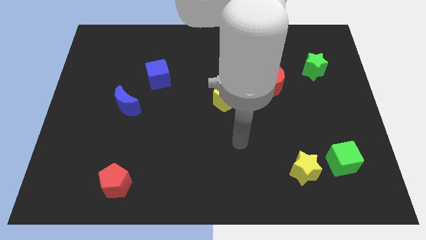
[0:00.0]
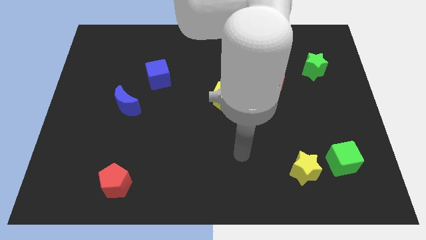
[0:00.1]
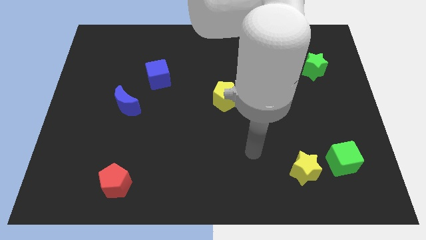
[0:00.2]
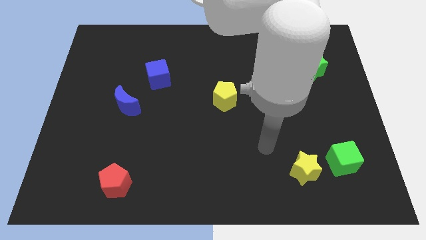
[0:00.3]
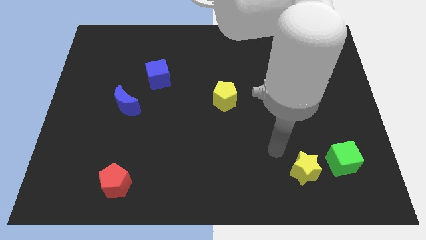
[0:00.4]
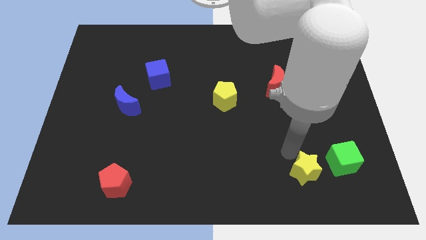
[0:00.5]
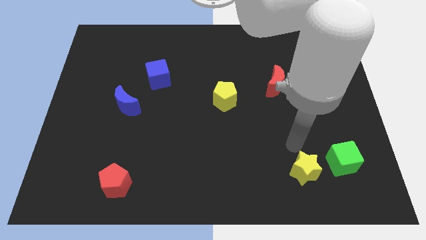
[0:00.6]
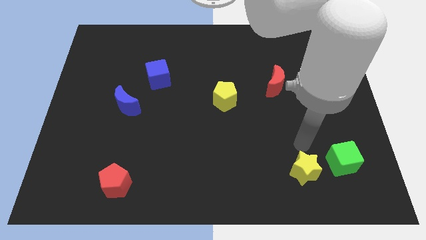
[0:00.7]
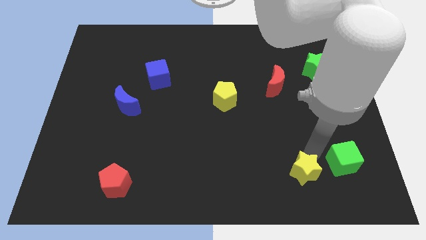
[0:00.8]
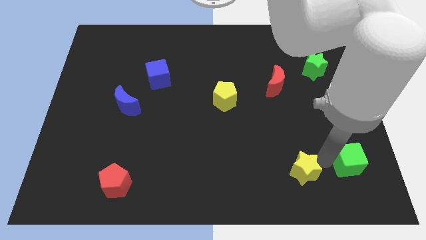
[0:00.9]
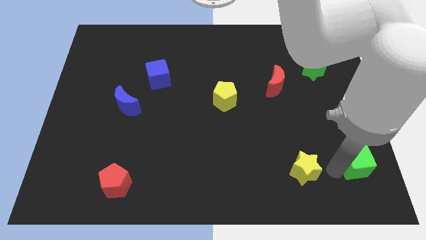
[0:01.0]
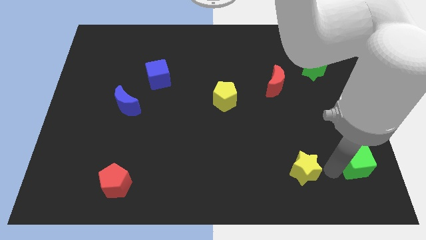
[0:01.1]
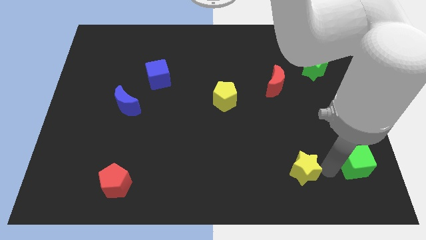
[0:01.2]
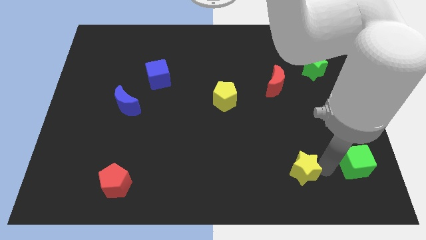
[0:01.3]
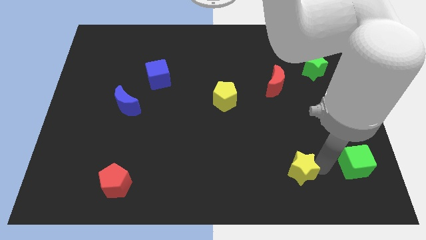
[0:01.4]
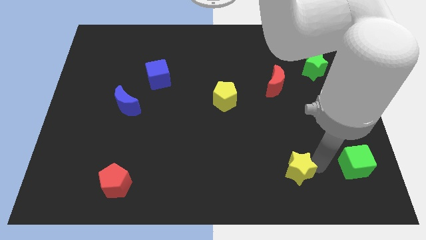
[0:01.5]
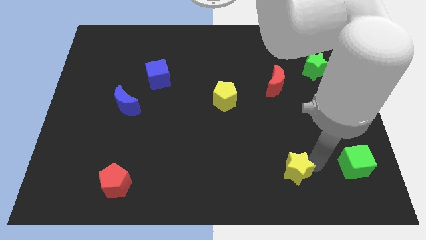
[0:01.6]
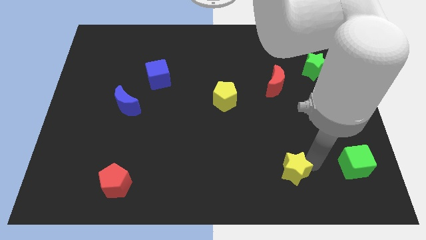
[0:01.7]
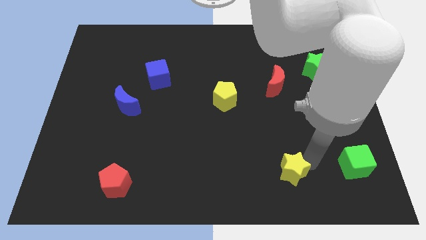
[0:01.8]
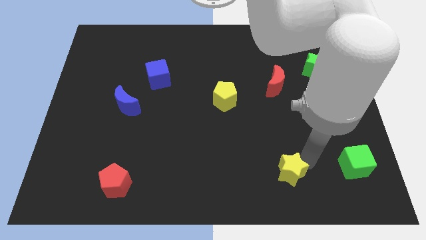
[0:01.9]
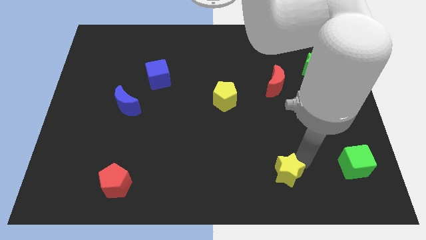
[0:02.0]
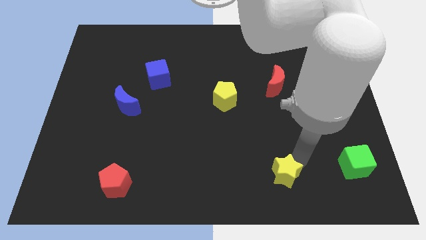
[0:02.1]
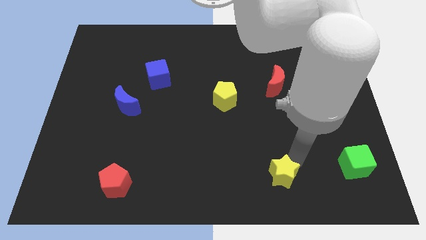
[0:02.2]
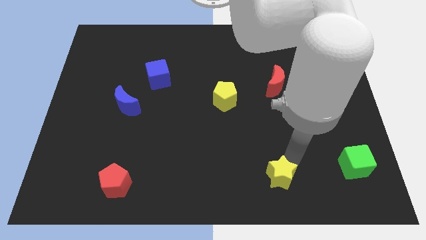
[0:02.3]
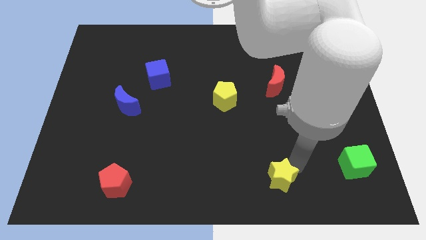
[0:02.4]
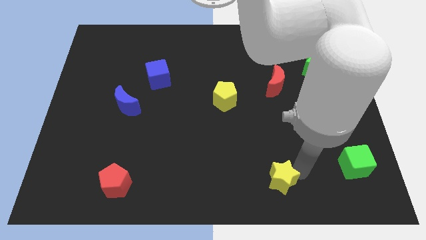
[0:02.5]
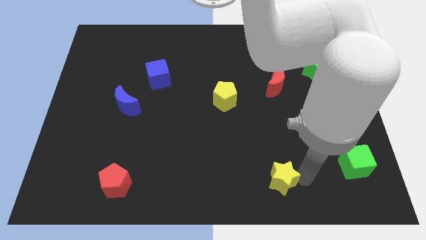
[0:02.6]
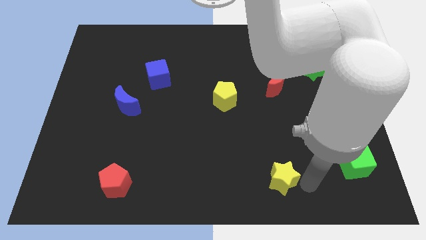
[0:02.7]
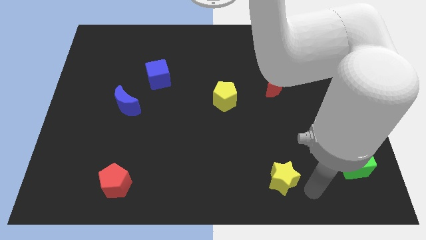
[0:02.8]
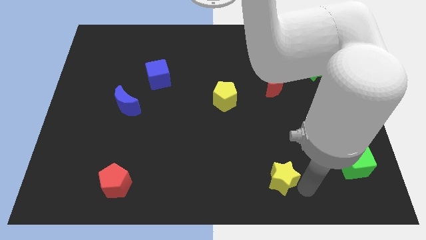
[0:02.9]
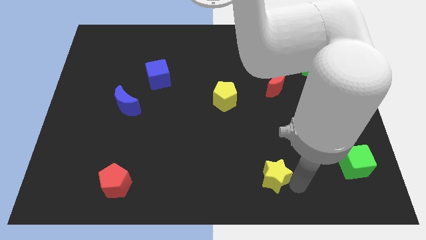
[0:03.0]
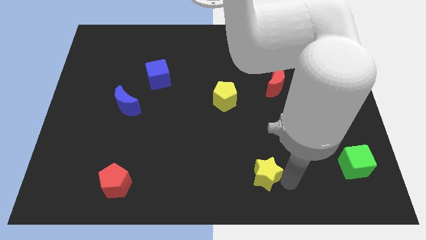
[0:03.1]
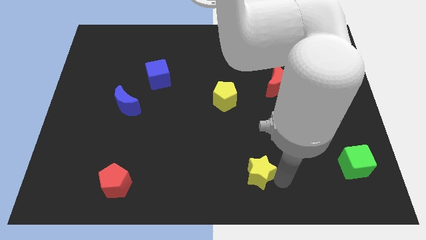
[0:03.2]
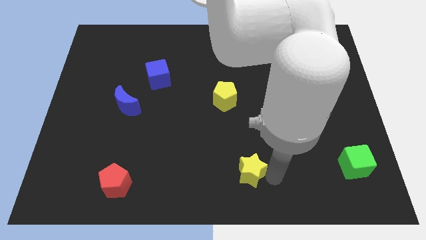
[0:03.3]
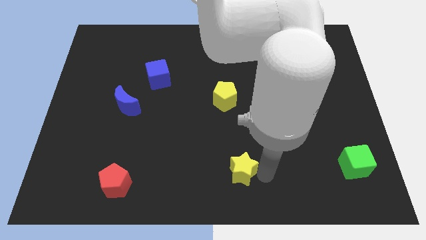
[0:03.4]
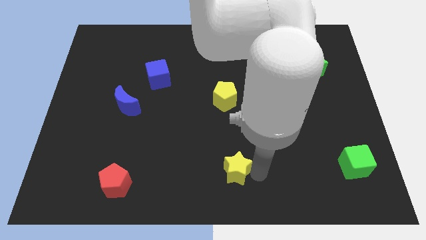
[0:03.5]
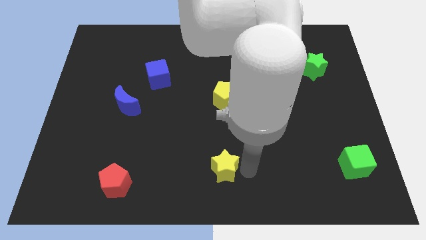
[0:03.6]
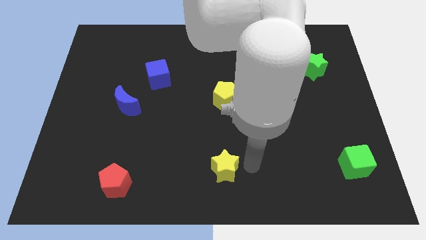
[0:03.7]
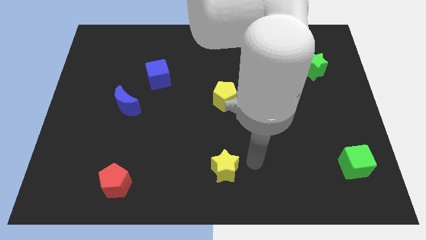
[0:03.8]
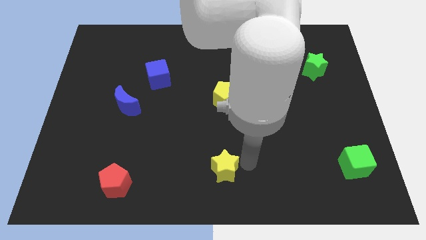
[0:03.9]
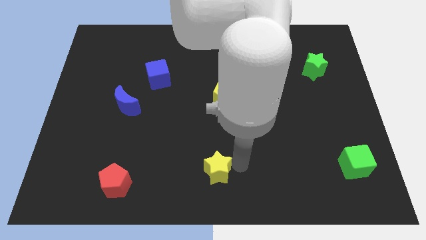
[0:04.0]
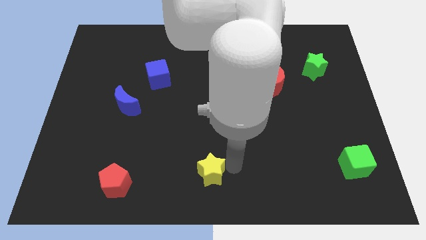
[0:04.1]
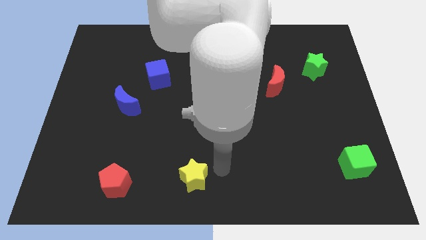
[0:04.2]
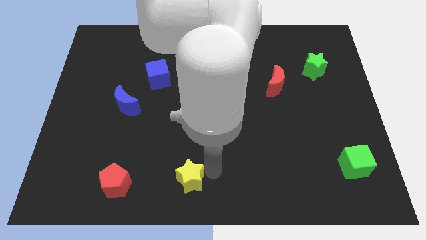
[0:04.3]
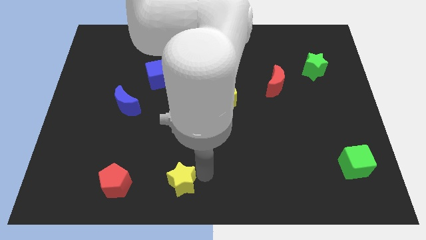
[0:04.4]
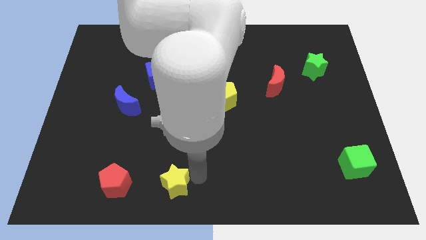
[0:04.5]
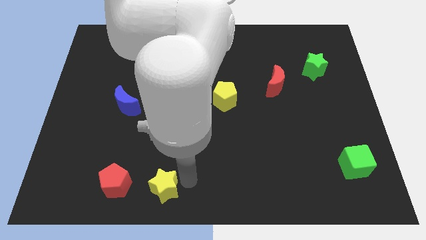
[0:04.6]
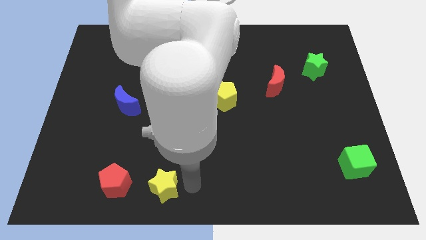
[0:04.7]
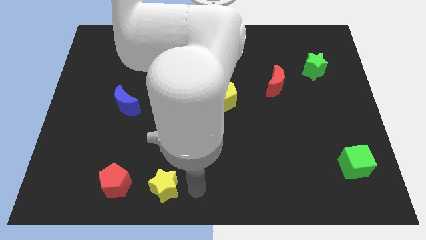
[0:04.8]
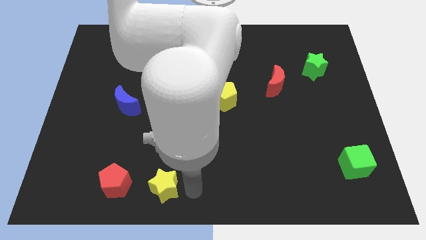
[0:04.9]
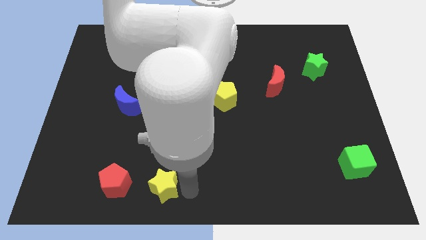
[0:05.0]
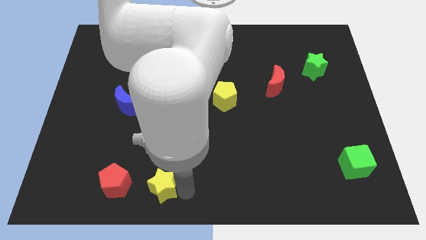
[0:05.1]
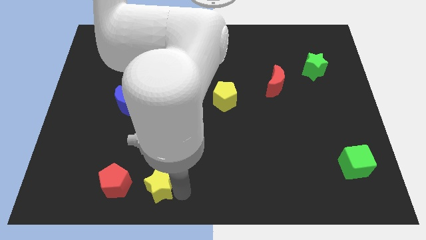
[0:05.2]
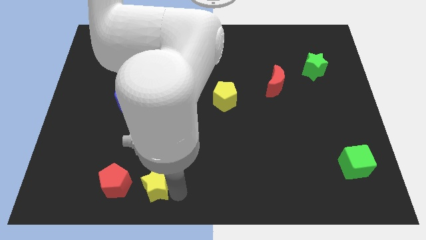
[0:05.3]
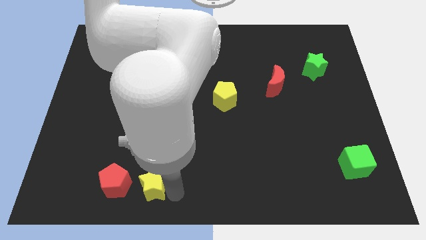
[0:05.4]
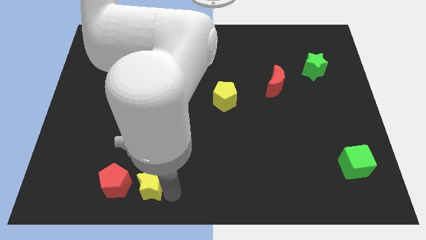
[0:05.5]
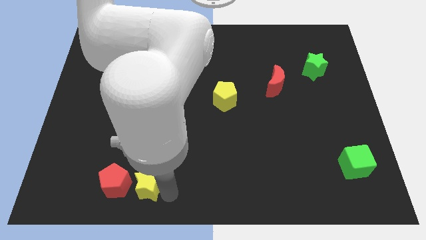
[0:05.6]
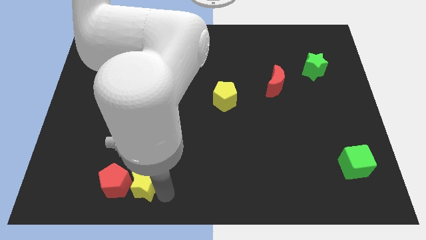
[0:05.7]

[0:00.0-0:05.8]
push the yellow star next to the red pentagon
